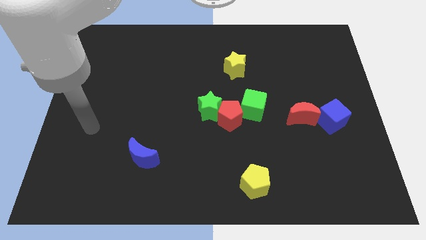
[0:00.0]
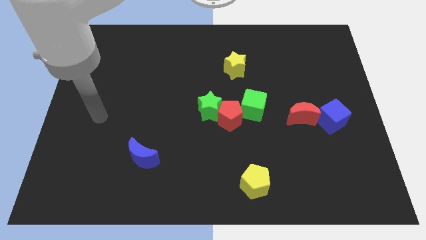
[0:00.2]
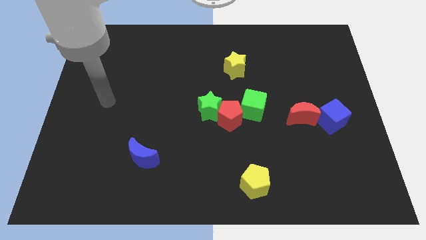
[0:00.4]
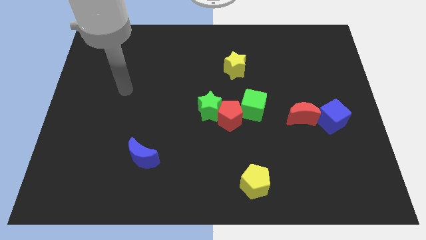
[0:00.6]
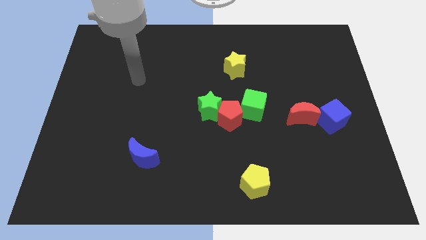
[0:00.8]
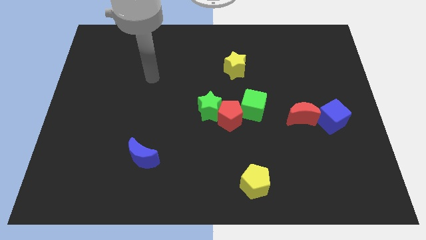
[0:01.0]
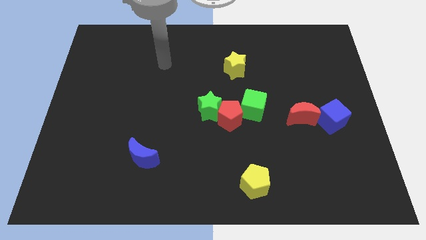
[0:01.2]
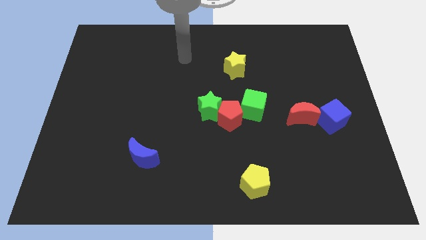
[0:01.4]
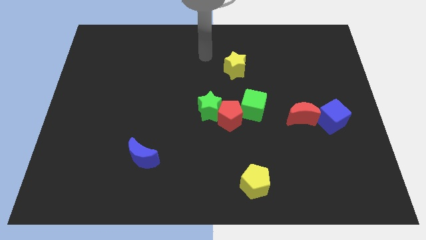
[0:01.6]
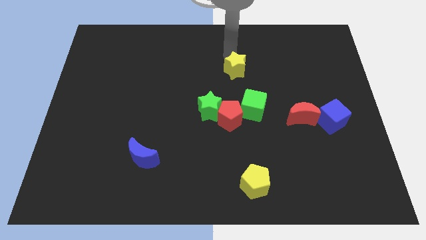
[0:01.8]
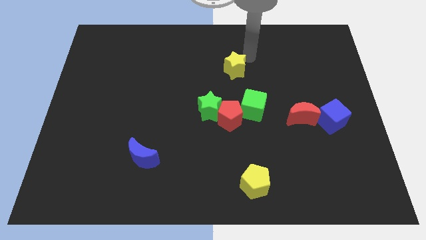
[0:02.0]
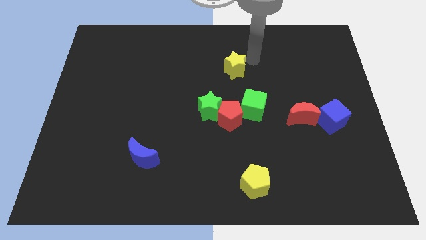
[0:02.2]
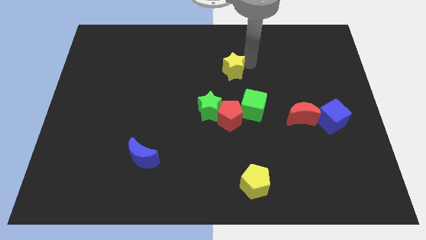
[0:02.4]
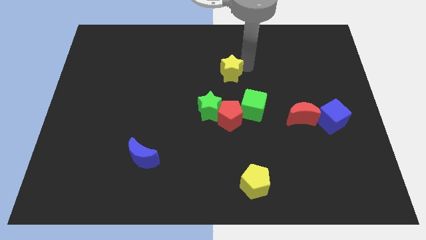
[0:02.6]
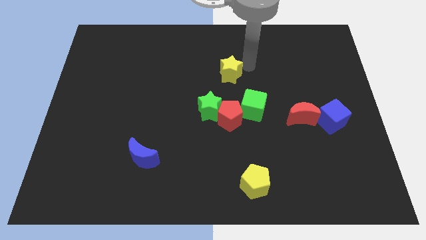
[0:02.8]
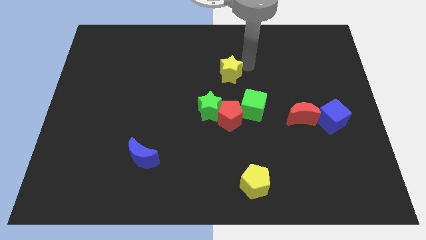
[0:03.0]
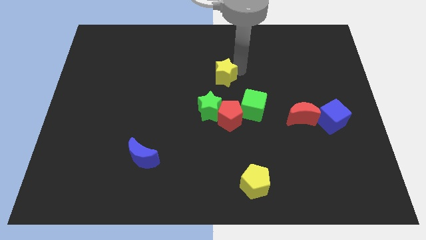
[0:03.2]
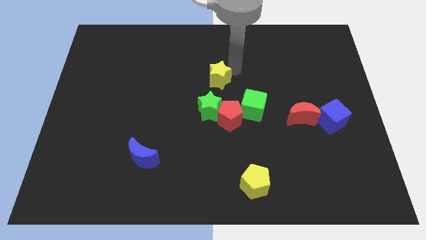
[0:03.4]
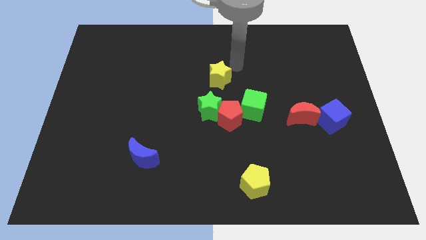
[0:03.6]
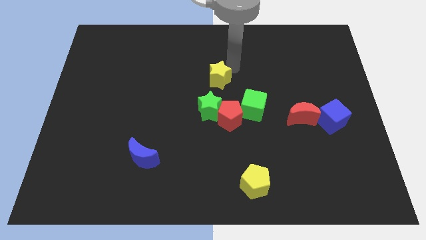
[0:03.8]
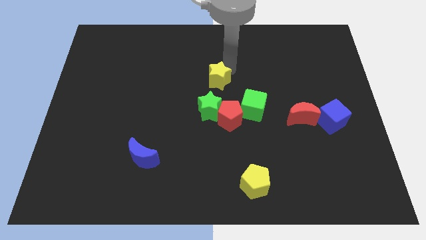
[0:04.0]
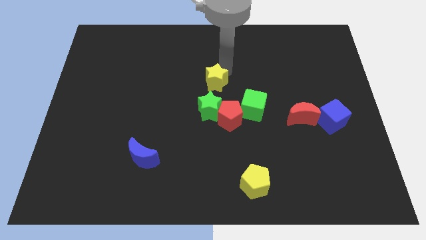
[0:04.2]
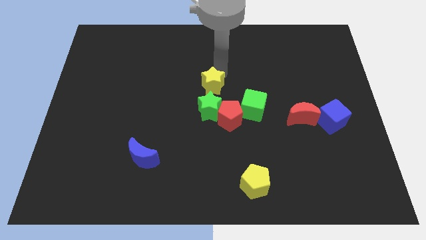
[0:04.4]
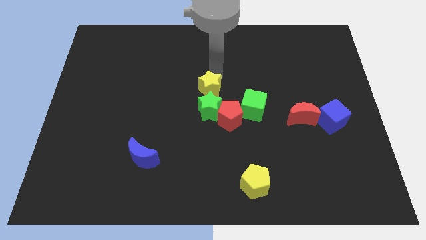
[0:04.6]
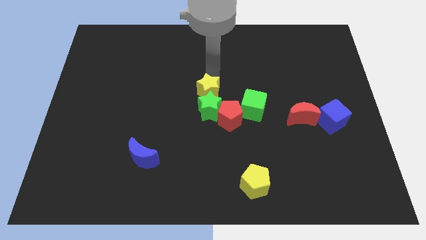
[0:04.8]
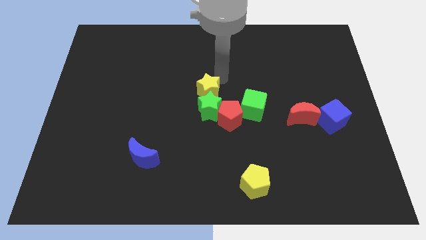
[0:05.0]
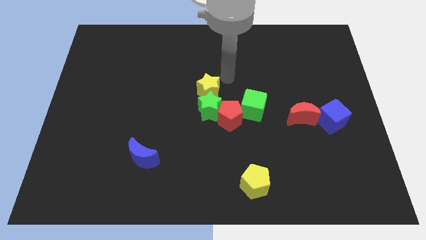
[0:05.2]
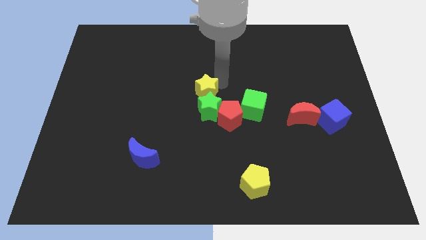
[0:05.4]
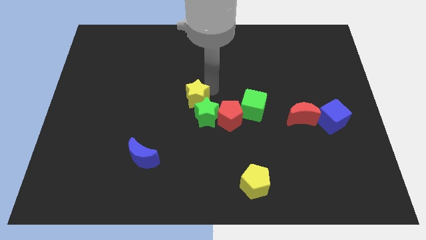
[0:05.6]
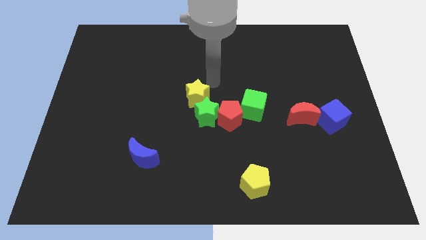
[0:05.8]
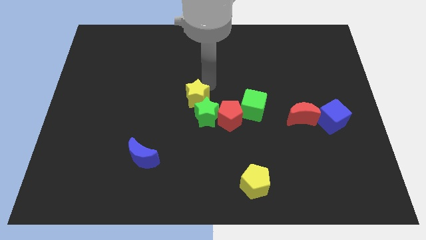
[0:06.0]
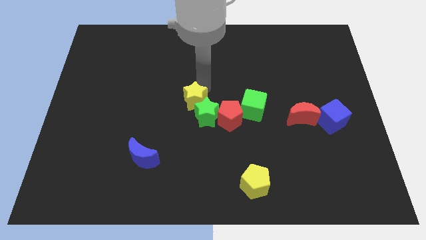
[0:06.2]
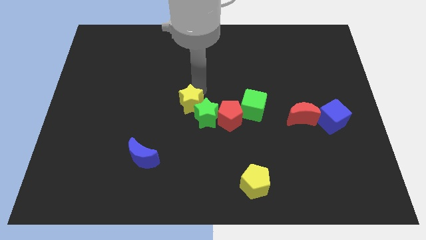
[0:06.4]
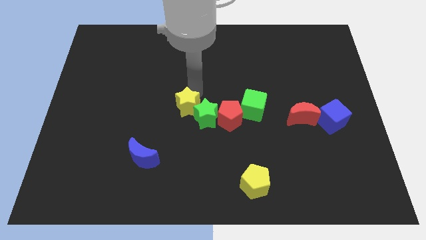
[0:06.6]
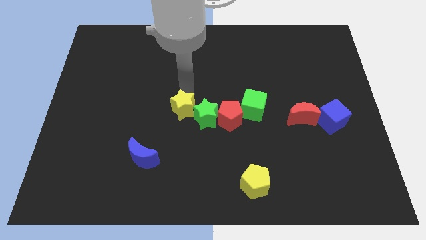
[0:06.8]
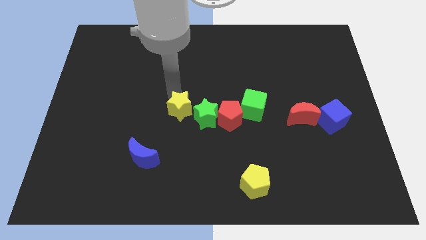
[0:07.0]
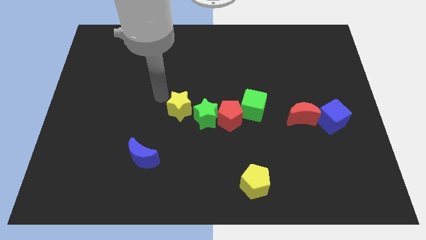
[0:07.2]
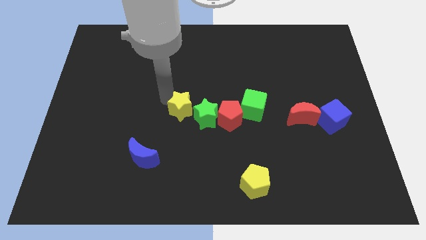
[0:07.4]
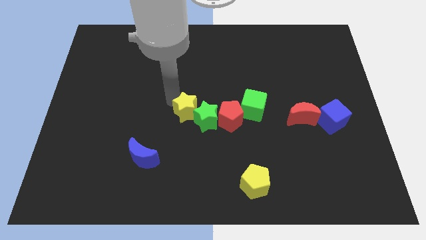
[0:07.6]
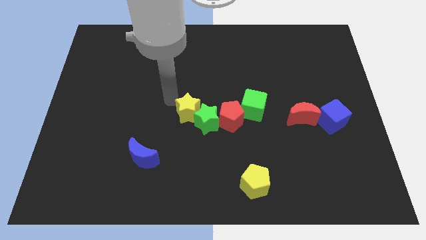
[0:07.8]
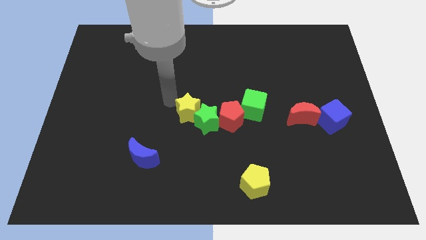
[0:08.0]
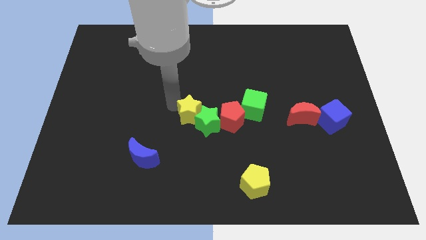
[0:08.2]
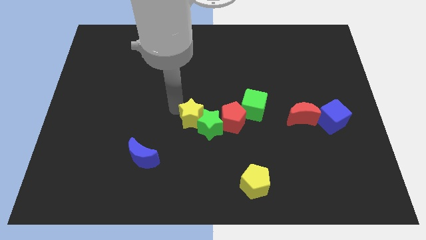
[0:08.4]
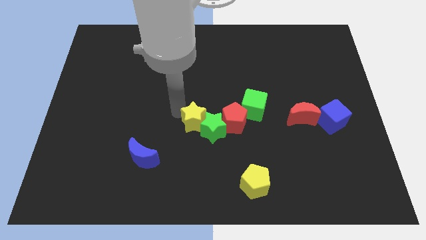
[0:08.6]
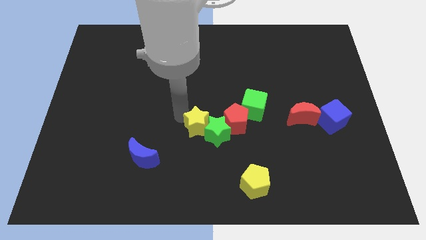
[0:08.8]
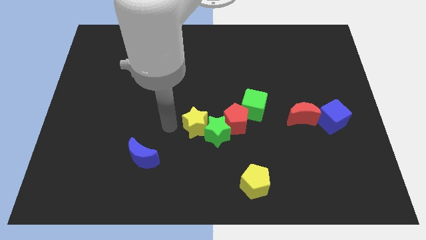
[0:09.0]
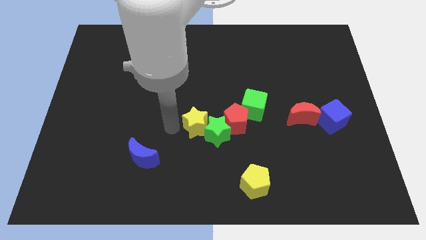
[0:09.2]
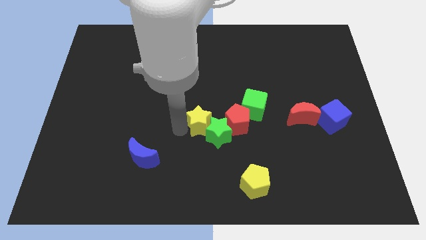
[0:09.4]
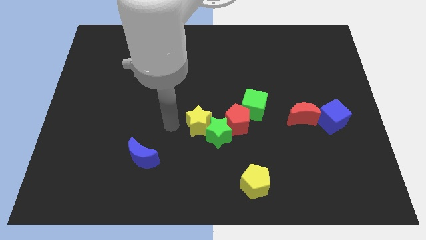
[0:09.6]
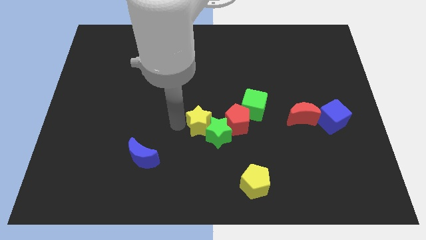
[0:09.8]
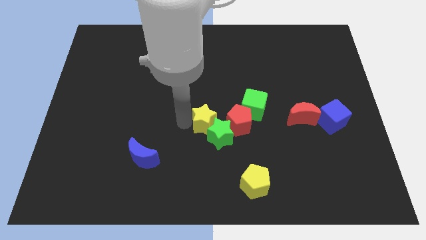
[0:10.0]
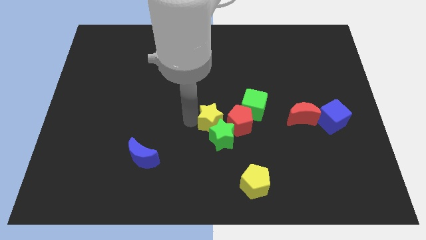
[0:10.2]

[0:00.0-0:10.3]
push the yellow star diagonally down and to the left of the green cube

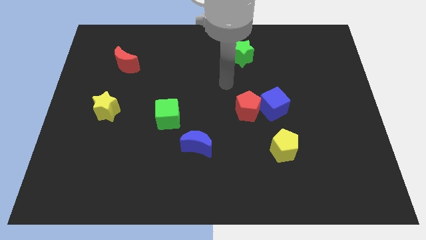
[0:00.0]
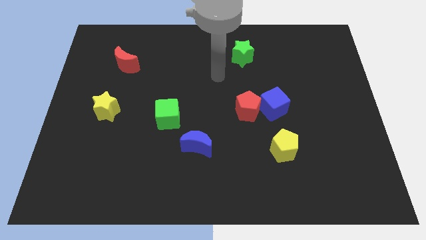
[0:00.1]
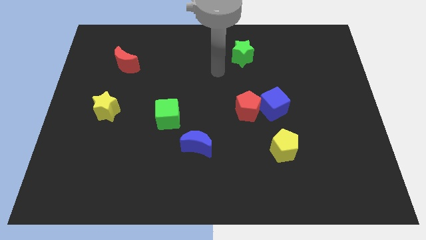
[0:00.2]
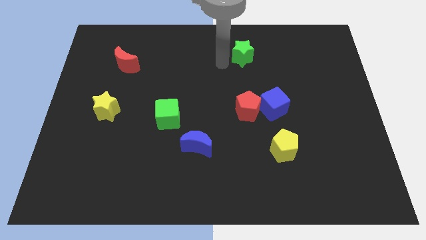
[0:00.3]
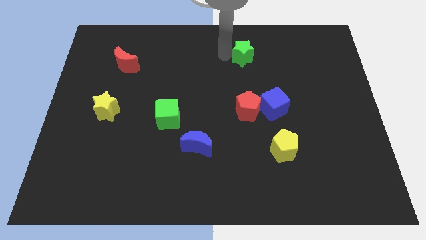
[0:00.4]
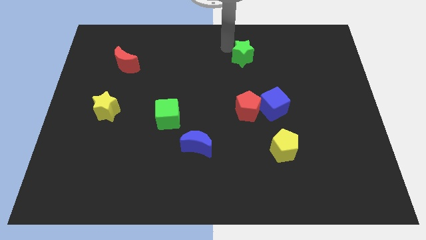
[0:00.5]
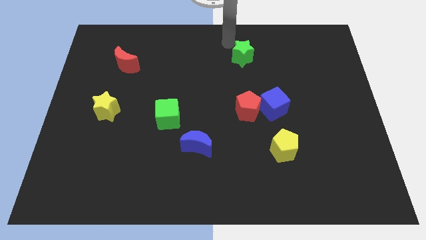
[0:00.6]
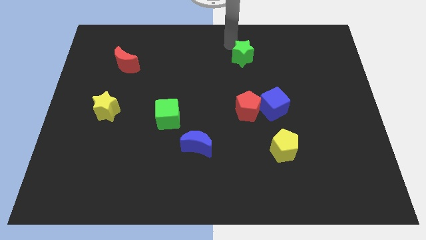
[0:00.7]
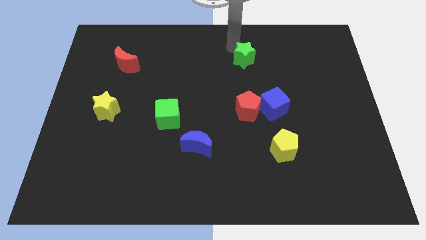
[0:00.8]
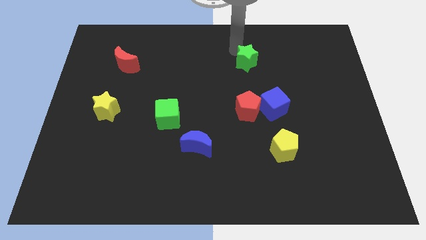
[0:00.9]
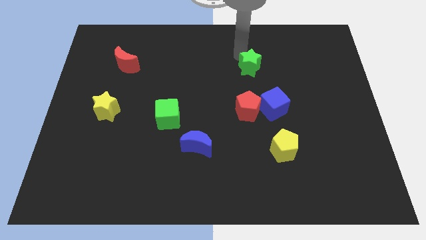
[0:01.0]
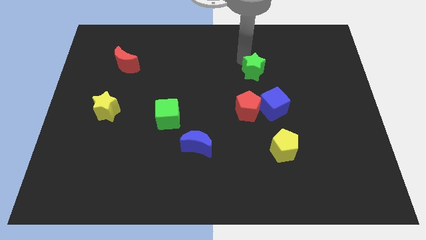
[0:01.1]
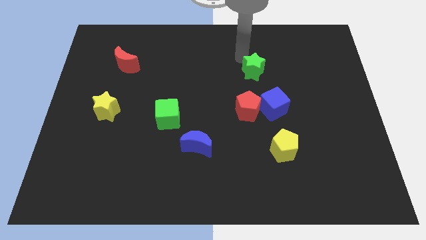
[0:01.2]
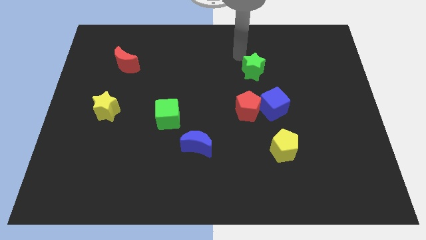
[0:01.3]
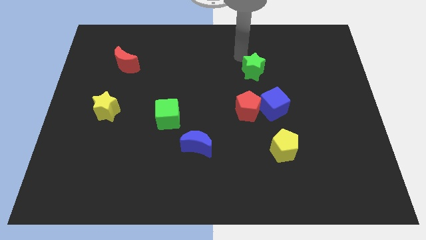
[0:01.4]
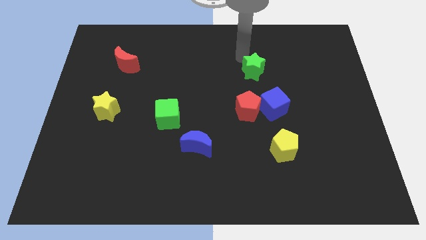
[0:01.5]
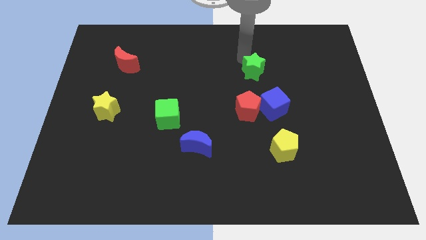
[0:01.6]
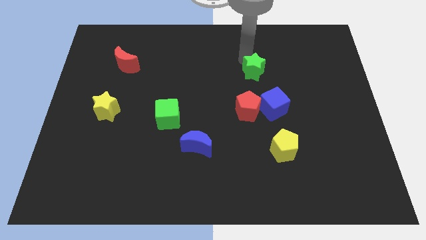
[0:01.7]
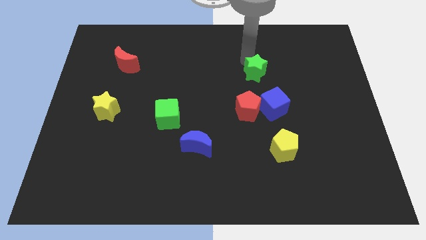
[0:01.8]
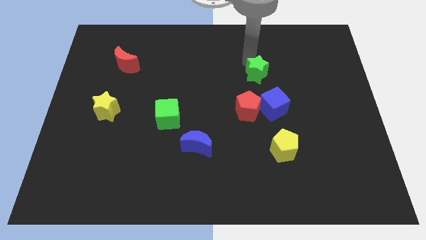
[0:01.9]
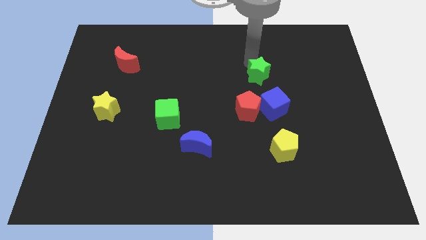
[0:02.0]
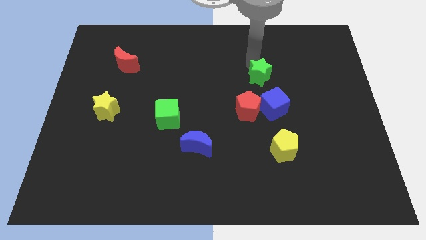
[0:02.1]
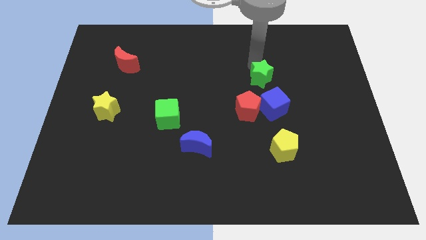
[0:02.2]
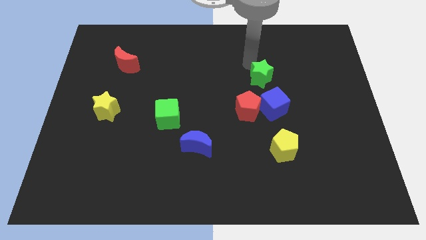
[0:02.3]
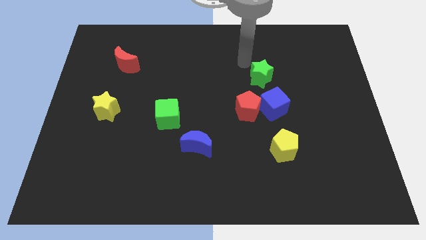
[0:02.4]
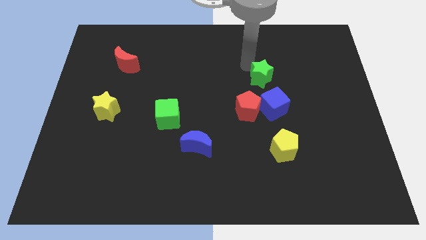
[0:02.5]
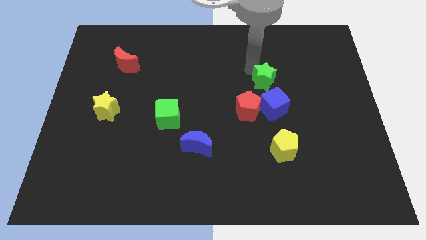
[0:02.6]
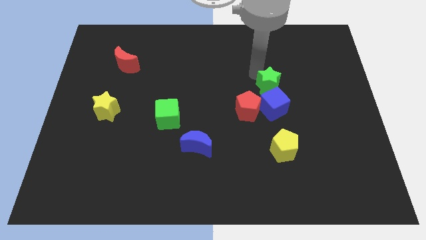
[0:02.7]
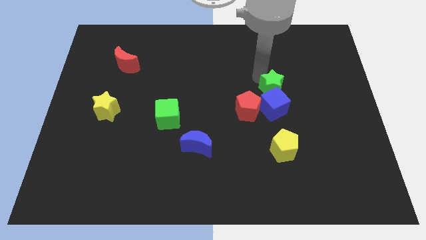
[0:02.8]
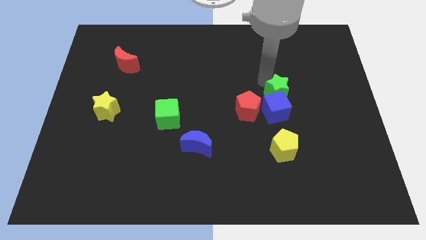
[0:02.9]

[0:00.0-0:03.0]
put the green star to the top side of the yellow pentagon
